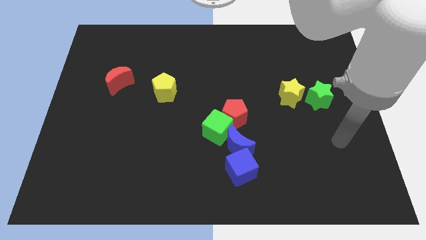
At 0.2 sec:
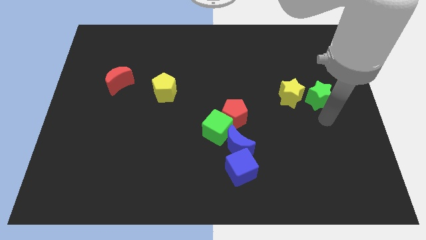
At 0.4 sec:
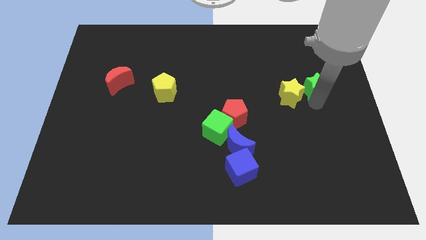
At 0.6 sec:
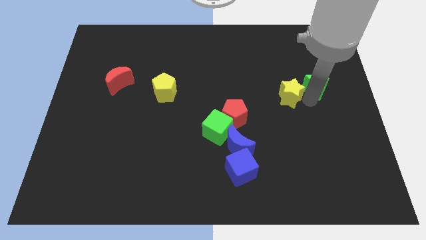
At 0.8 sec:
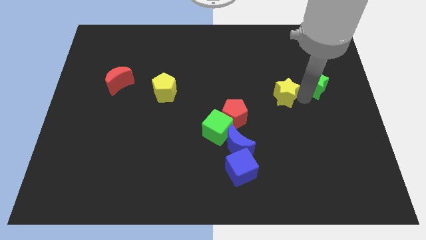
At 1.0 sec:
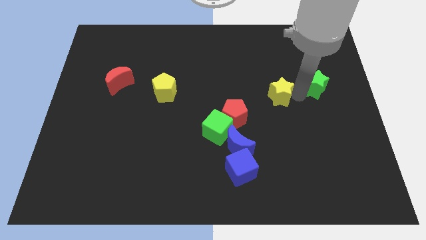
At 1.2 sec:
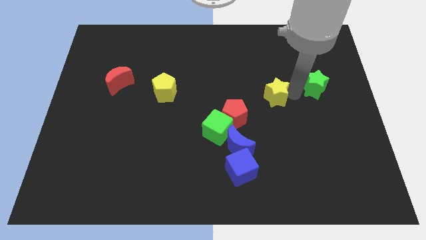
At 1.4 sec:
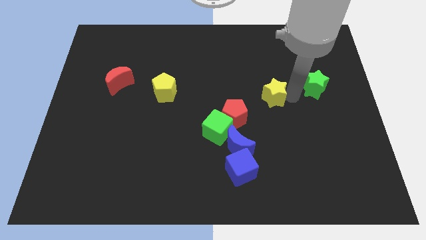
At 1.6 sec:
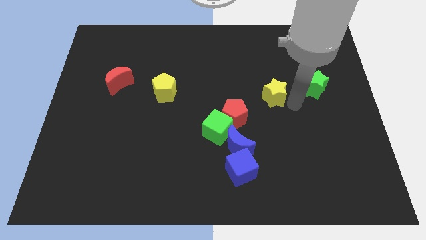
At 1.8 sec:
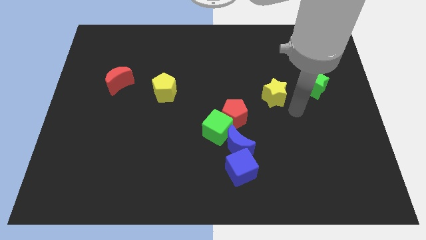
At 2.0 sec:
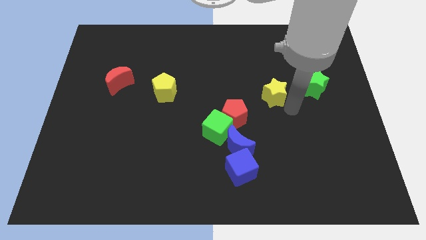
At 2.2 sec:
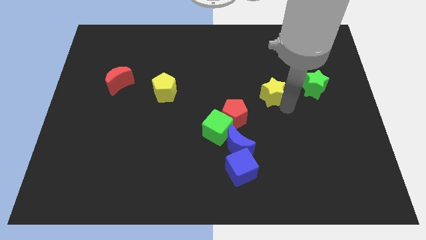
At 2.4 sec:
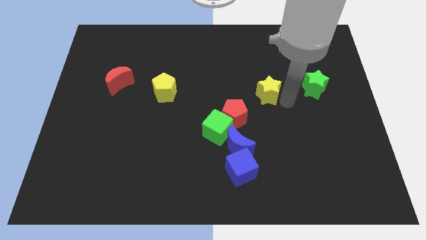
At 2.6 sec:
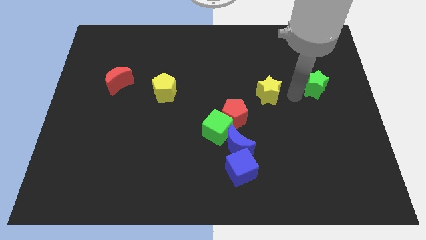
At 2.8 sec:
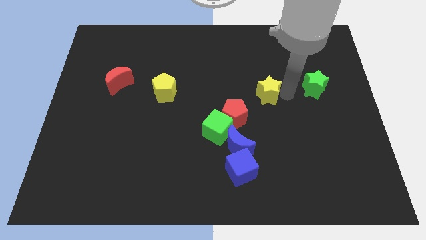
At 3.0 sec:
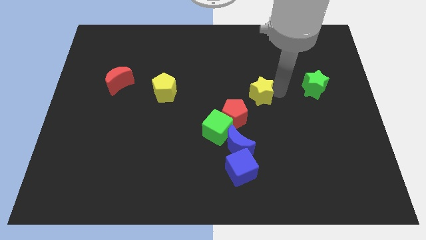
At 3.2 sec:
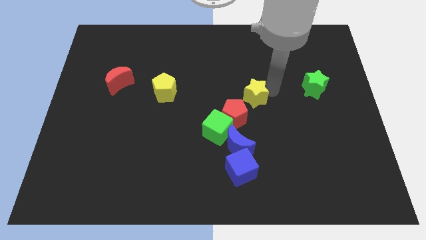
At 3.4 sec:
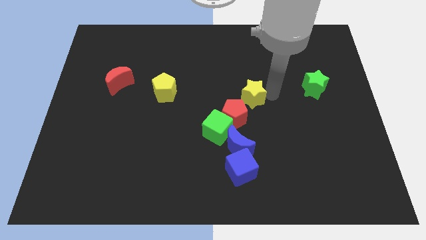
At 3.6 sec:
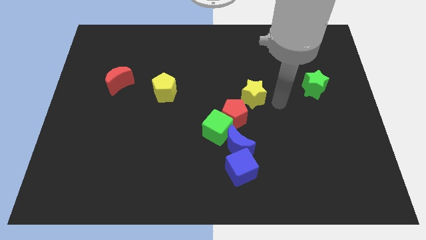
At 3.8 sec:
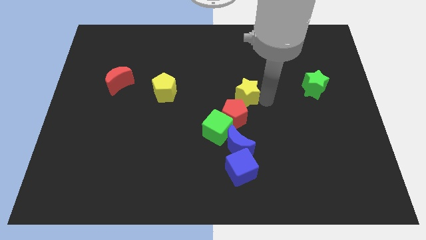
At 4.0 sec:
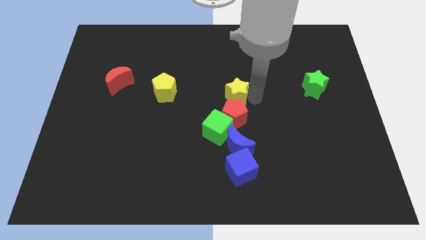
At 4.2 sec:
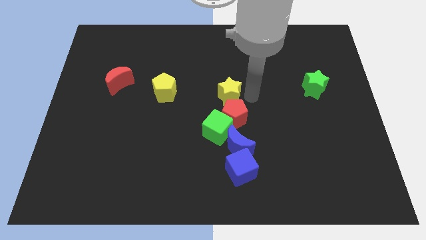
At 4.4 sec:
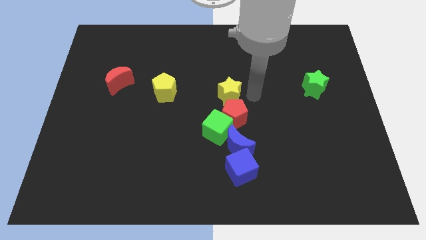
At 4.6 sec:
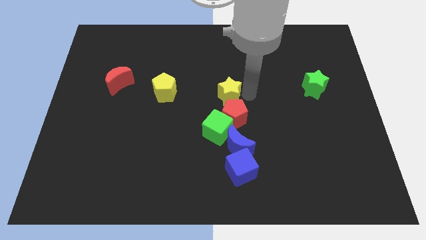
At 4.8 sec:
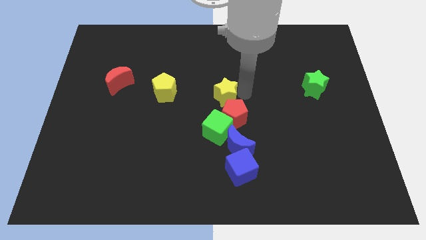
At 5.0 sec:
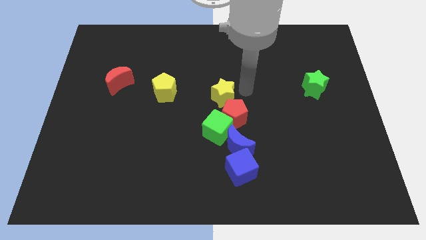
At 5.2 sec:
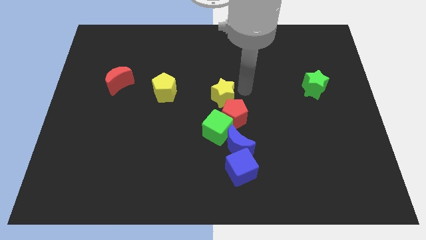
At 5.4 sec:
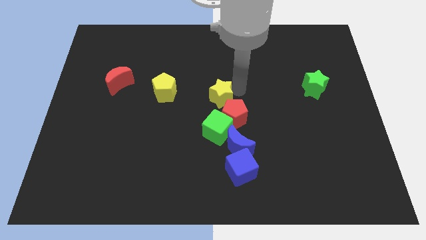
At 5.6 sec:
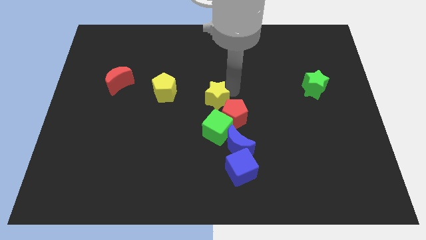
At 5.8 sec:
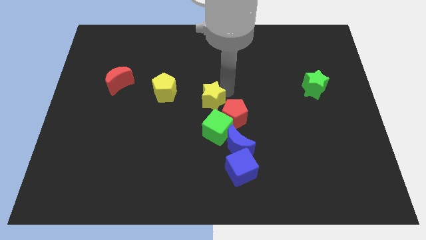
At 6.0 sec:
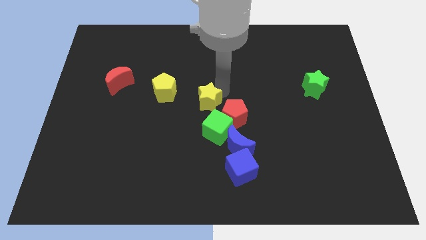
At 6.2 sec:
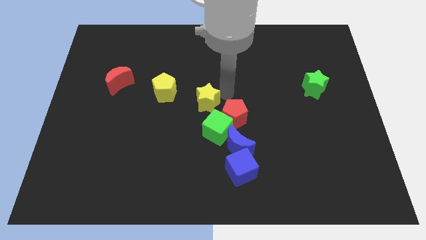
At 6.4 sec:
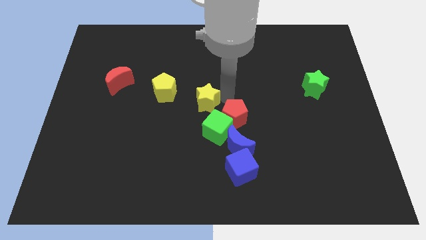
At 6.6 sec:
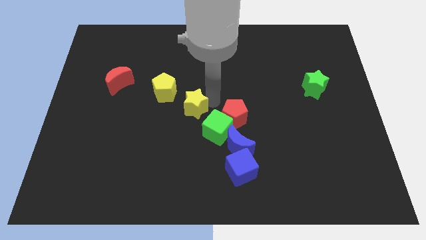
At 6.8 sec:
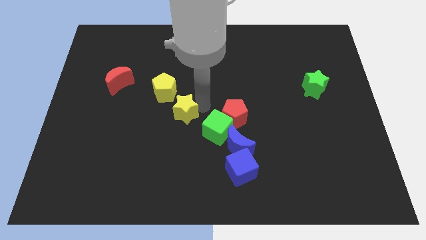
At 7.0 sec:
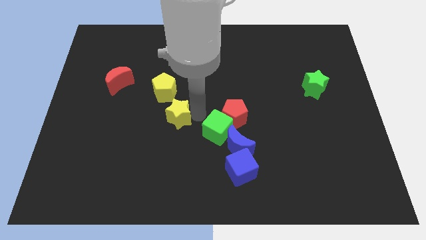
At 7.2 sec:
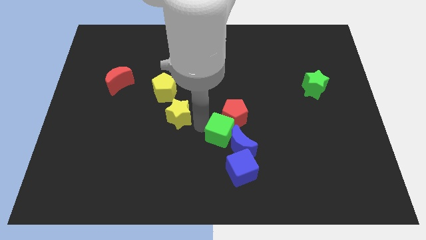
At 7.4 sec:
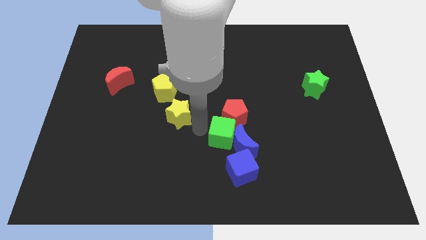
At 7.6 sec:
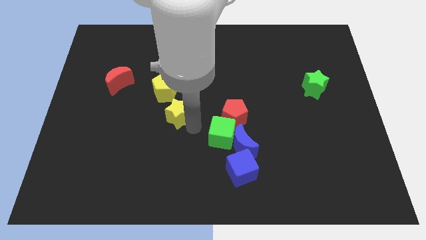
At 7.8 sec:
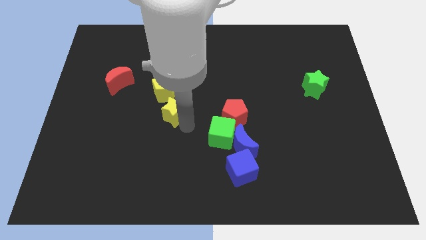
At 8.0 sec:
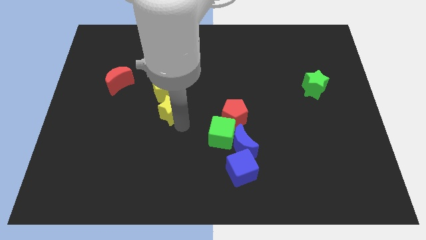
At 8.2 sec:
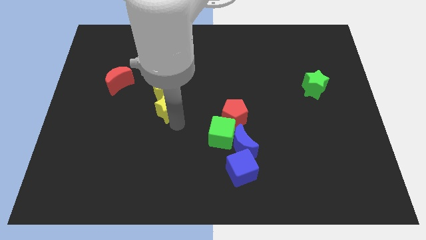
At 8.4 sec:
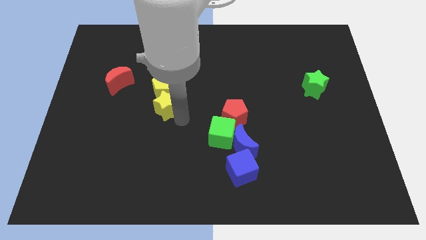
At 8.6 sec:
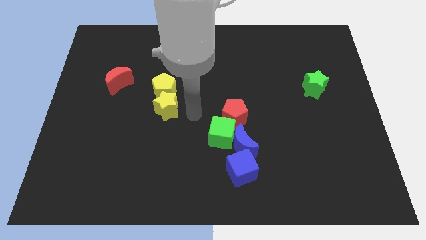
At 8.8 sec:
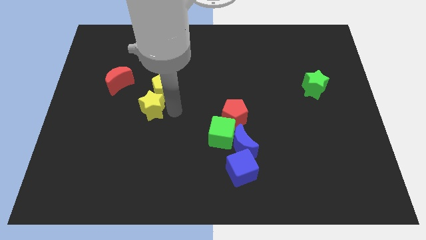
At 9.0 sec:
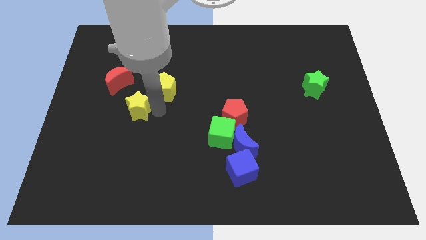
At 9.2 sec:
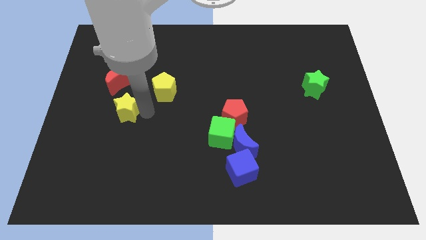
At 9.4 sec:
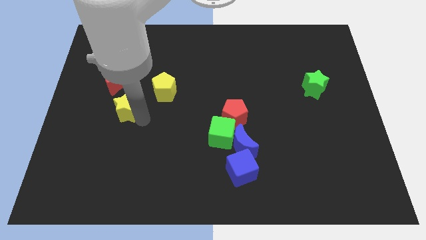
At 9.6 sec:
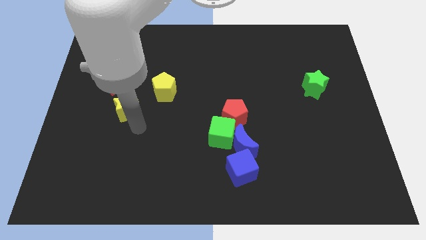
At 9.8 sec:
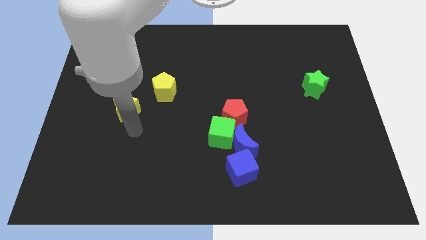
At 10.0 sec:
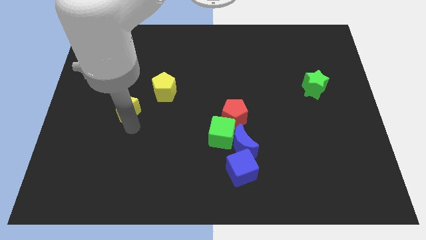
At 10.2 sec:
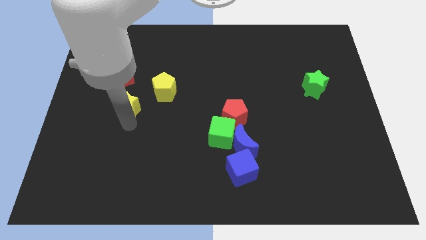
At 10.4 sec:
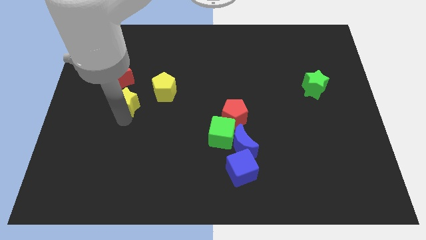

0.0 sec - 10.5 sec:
move the yellow star to the left of the yellow pentagon

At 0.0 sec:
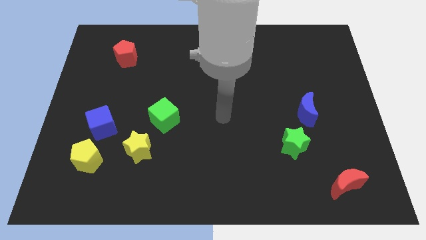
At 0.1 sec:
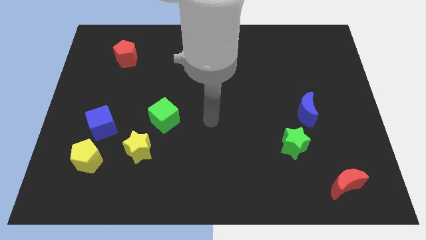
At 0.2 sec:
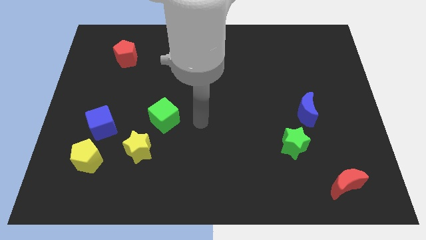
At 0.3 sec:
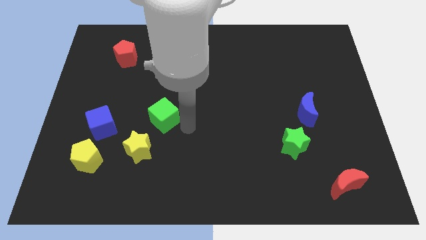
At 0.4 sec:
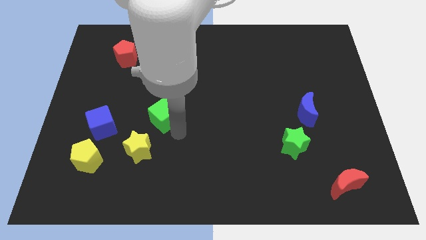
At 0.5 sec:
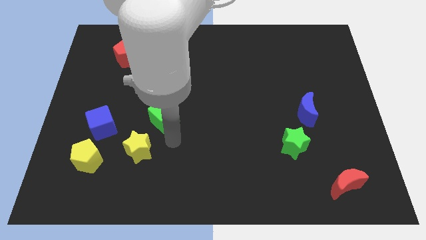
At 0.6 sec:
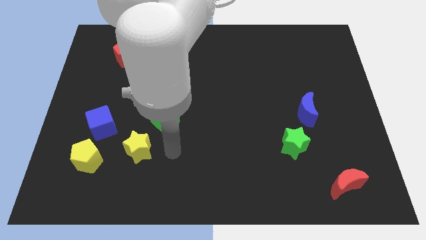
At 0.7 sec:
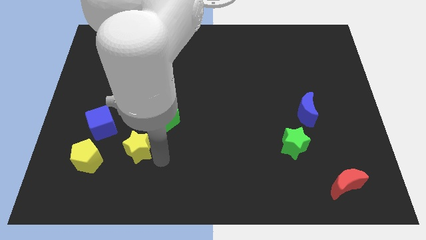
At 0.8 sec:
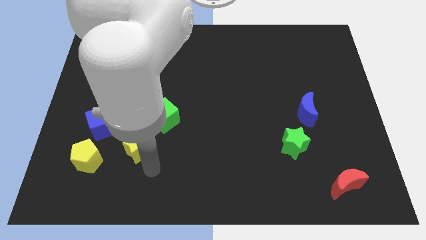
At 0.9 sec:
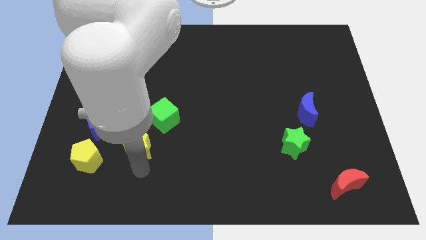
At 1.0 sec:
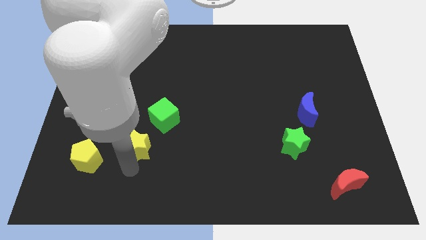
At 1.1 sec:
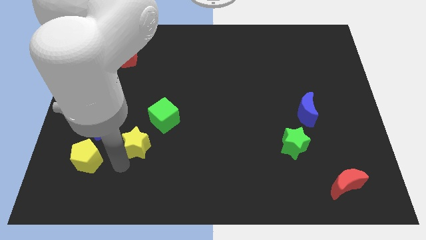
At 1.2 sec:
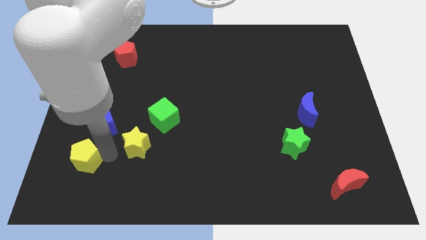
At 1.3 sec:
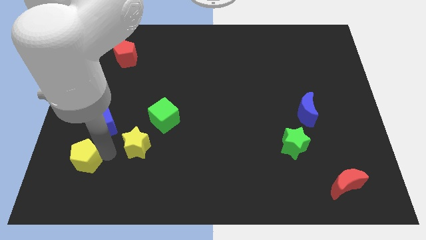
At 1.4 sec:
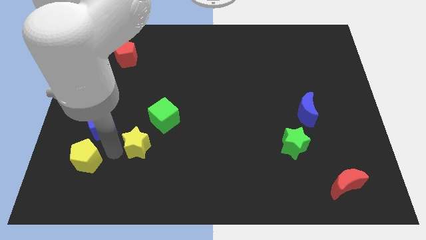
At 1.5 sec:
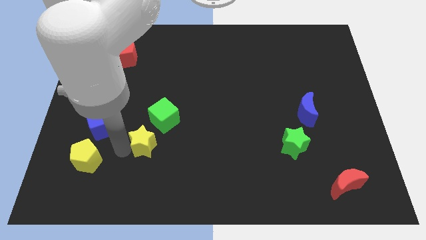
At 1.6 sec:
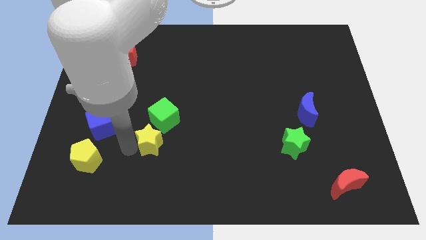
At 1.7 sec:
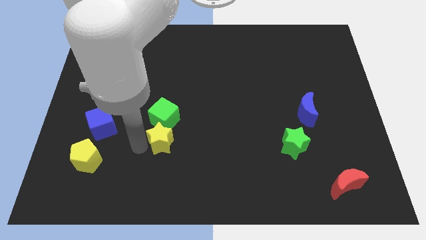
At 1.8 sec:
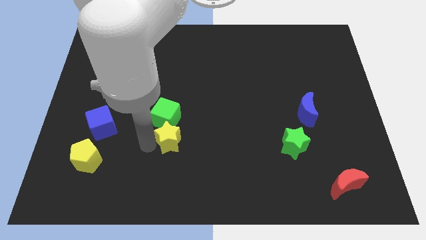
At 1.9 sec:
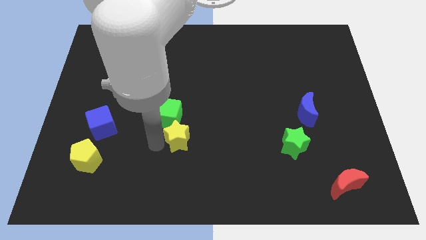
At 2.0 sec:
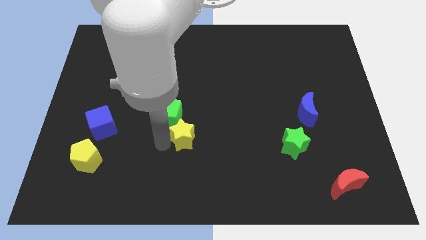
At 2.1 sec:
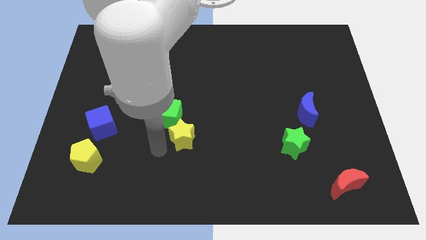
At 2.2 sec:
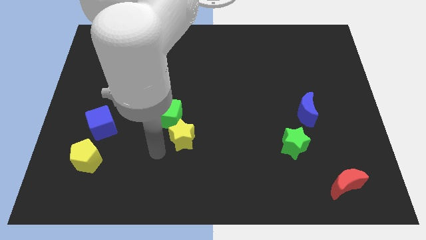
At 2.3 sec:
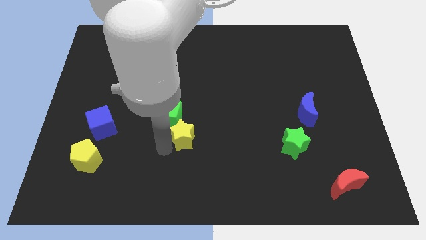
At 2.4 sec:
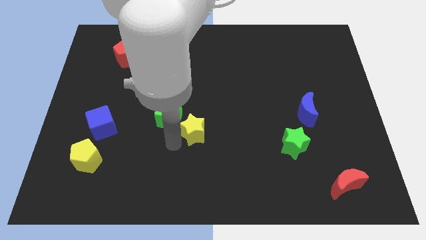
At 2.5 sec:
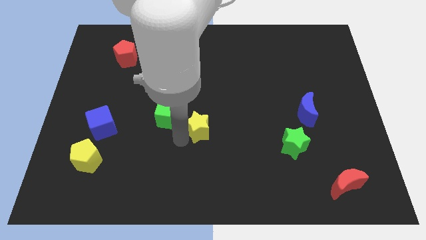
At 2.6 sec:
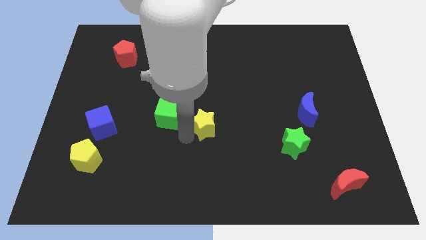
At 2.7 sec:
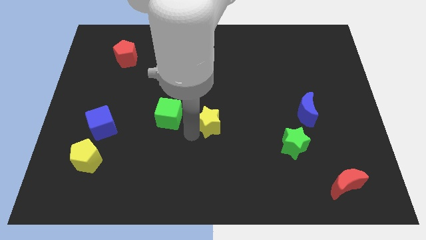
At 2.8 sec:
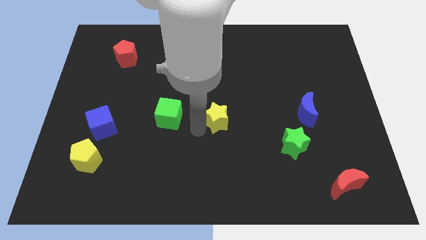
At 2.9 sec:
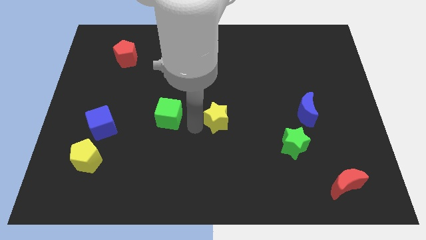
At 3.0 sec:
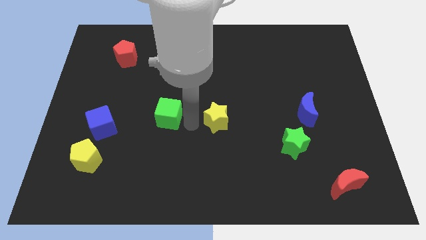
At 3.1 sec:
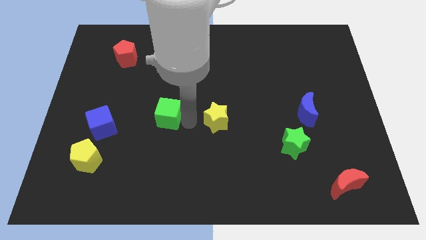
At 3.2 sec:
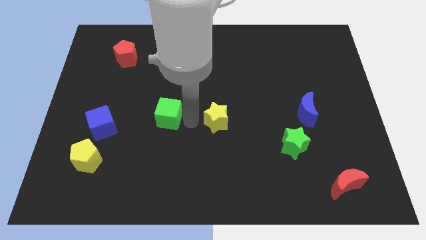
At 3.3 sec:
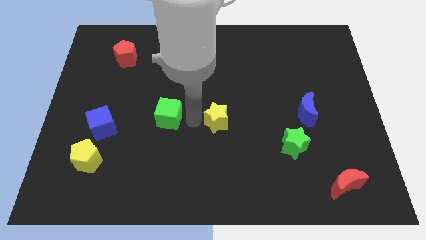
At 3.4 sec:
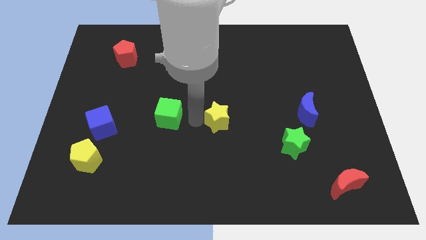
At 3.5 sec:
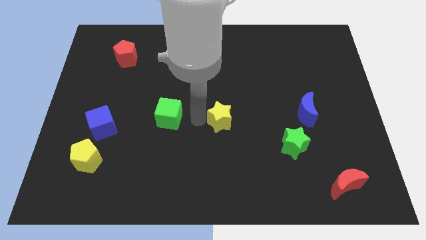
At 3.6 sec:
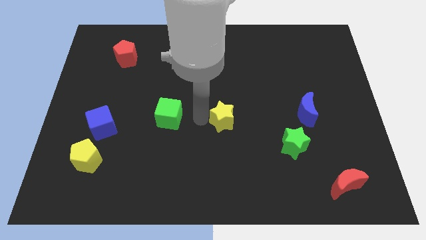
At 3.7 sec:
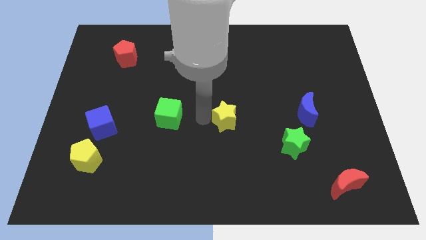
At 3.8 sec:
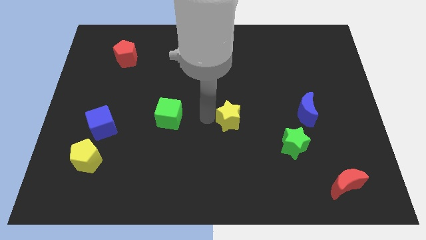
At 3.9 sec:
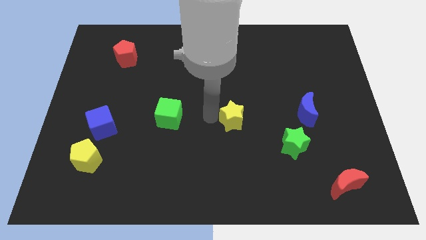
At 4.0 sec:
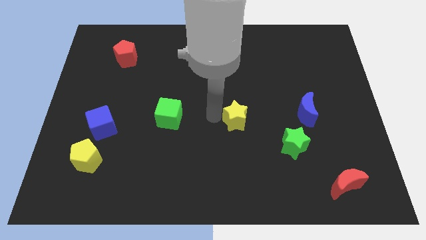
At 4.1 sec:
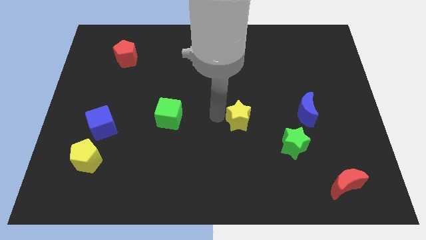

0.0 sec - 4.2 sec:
move the yellow star to the left of the blue moon
